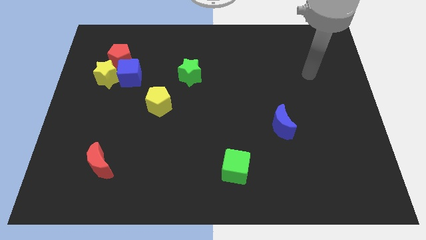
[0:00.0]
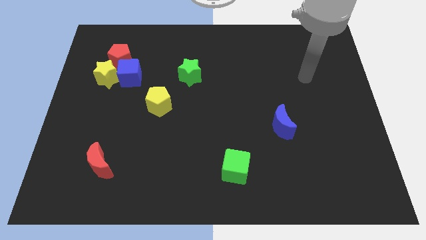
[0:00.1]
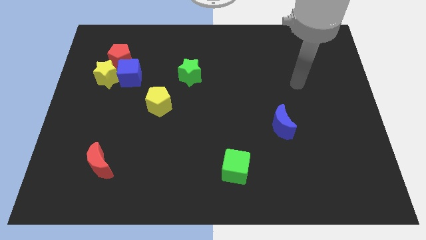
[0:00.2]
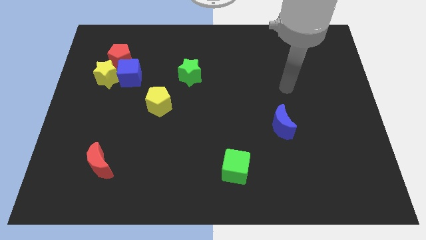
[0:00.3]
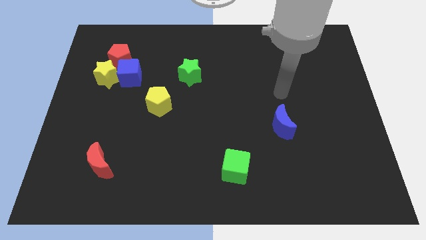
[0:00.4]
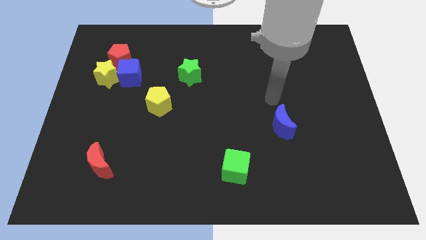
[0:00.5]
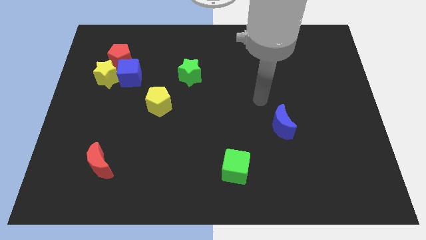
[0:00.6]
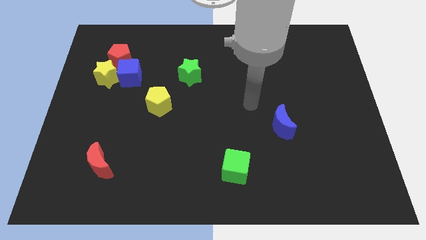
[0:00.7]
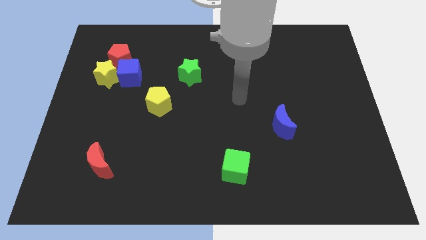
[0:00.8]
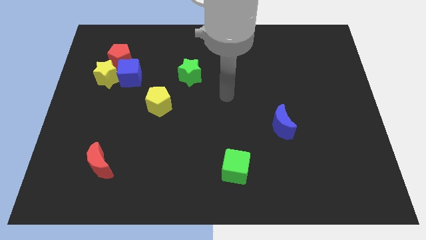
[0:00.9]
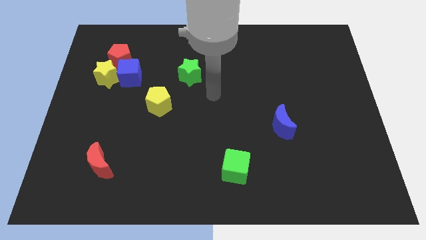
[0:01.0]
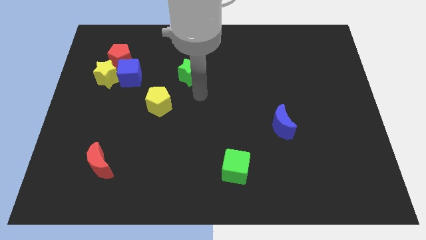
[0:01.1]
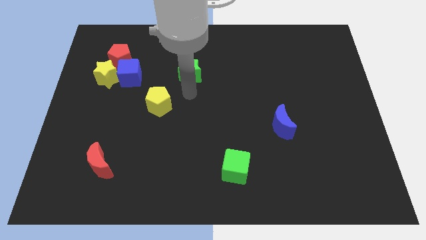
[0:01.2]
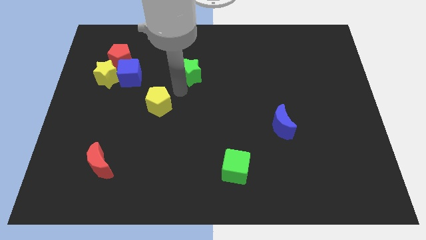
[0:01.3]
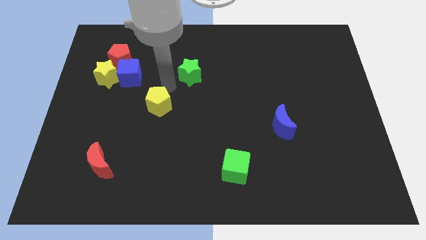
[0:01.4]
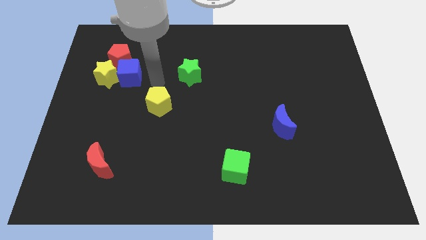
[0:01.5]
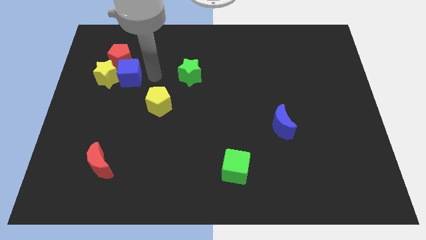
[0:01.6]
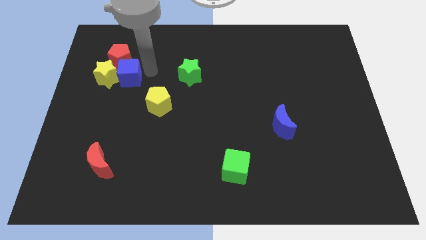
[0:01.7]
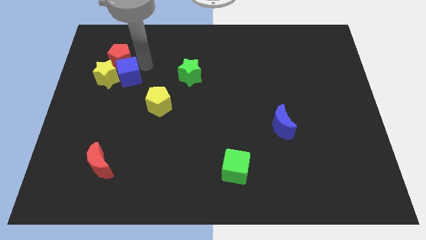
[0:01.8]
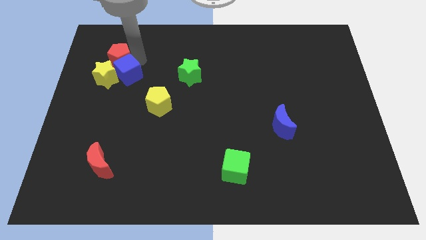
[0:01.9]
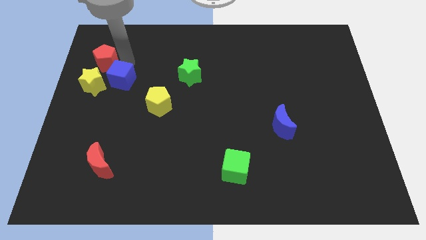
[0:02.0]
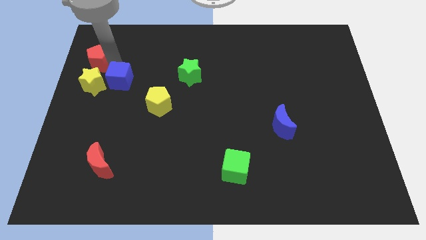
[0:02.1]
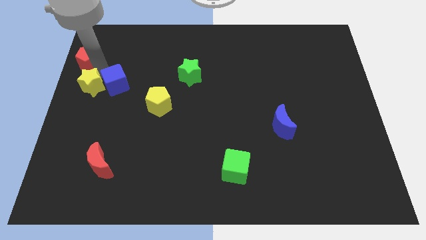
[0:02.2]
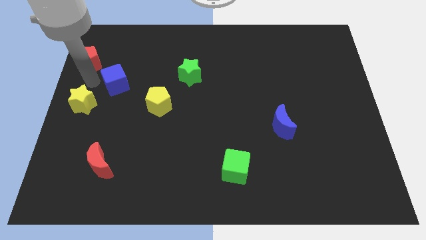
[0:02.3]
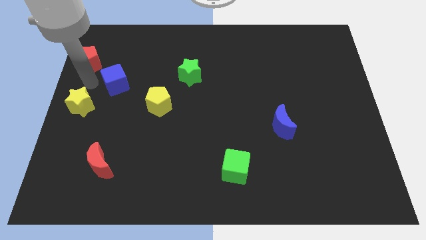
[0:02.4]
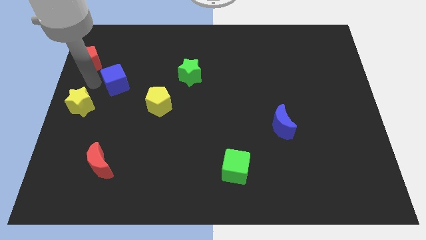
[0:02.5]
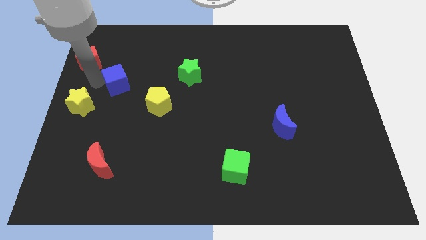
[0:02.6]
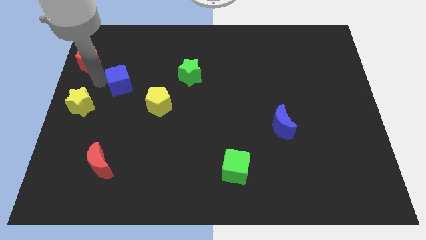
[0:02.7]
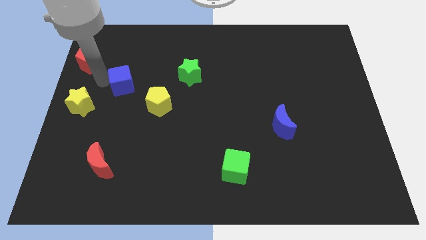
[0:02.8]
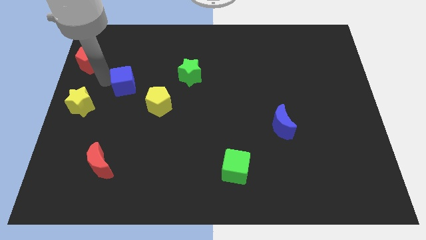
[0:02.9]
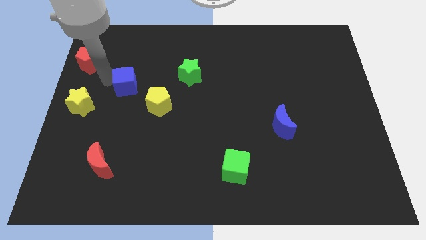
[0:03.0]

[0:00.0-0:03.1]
move the blue cube away from the yellow star and red pentagon

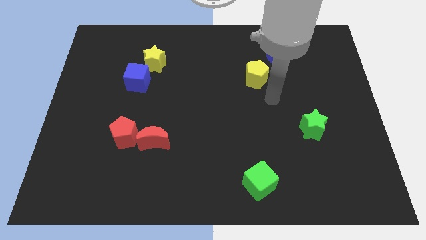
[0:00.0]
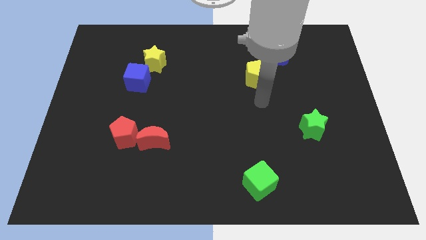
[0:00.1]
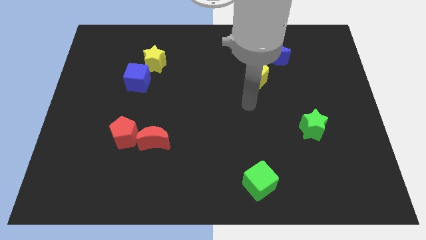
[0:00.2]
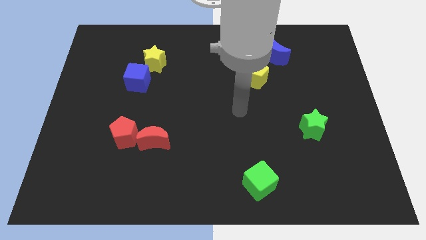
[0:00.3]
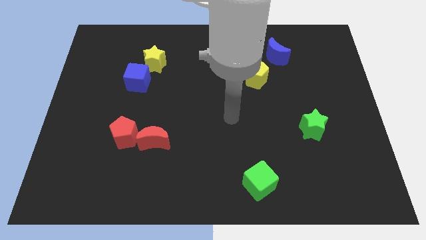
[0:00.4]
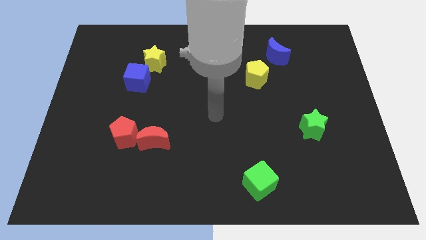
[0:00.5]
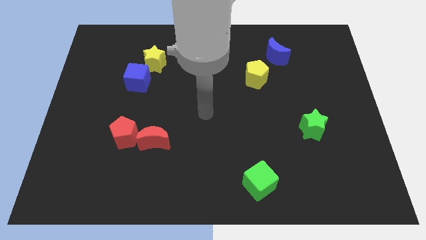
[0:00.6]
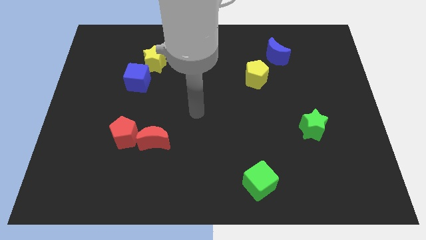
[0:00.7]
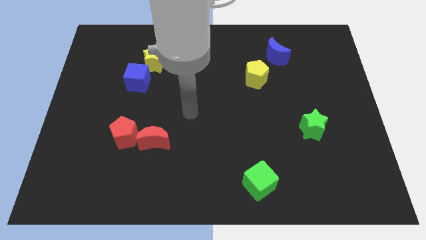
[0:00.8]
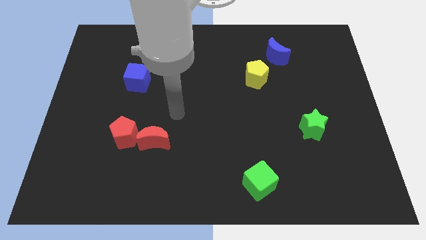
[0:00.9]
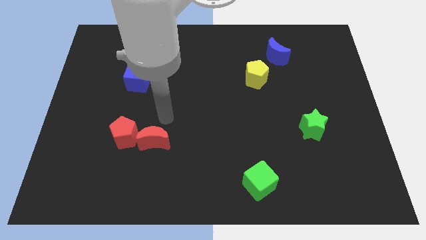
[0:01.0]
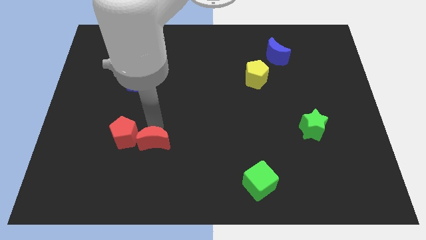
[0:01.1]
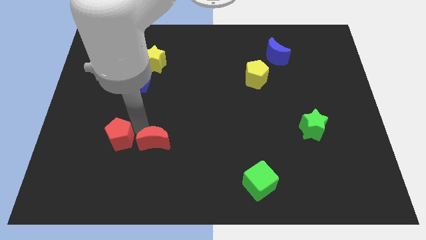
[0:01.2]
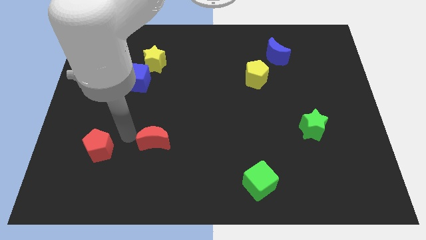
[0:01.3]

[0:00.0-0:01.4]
move the red moon away from the red pentagon

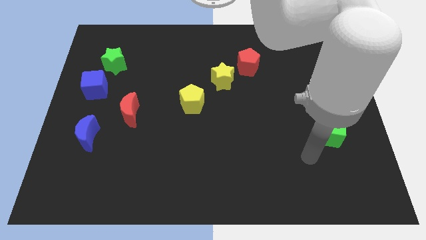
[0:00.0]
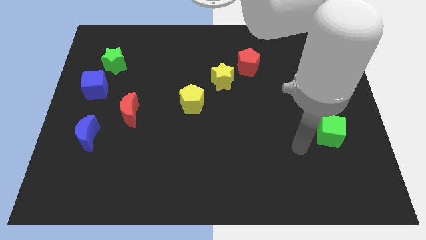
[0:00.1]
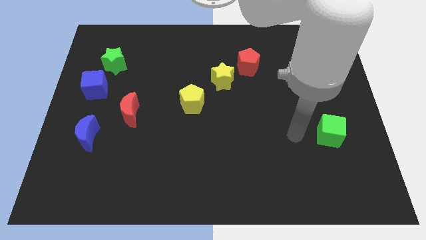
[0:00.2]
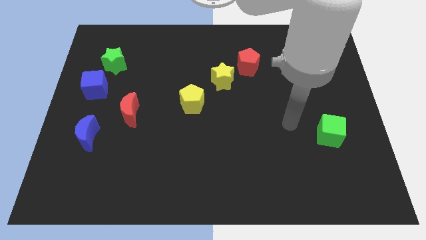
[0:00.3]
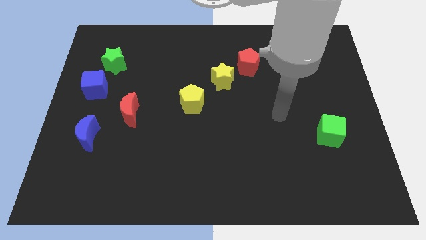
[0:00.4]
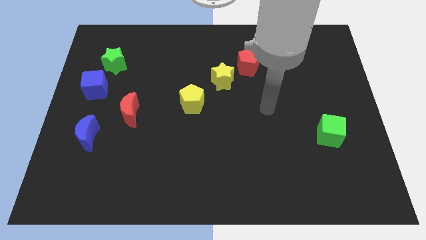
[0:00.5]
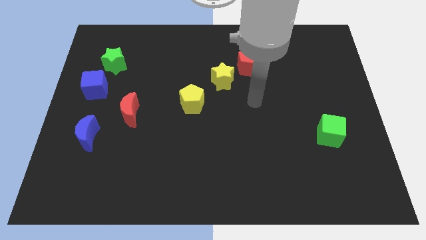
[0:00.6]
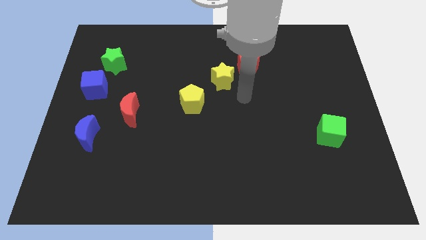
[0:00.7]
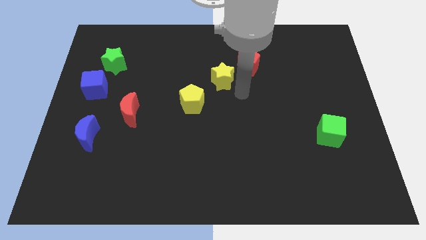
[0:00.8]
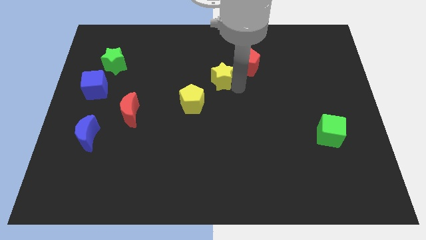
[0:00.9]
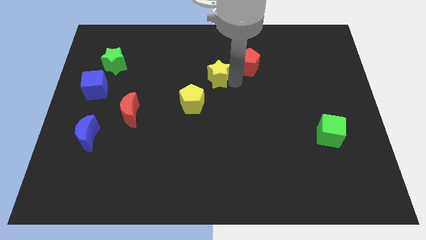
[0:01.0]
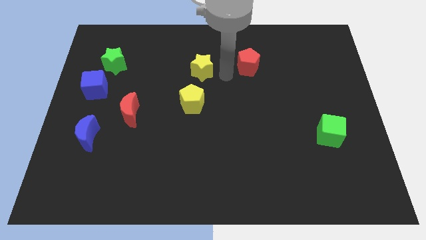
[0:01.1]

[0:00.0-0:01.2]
move the red pentagon away from the yellow star

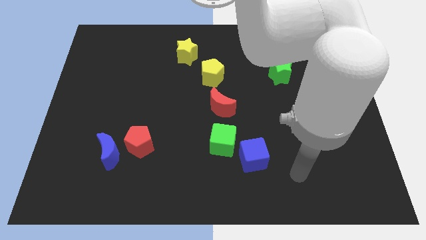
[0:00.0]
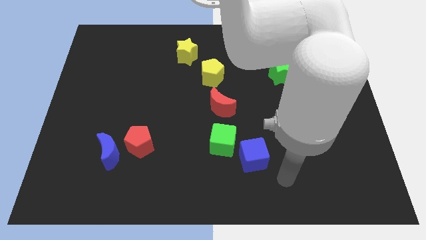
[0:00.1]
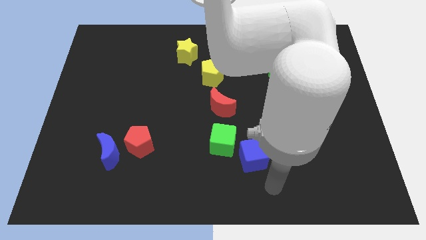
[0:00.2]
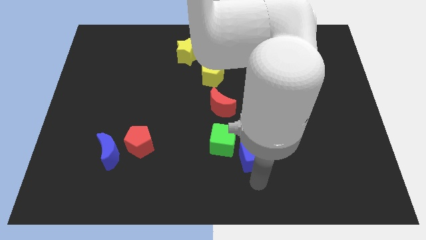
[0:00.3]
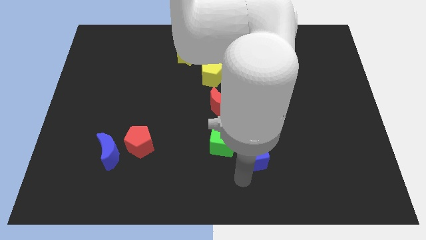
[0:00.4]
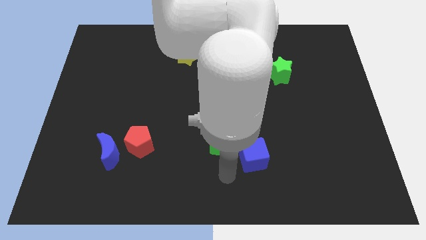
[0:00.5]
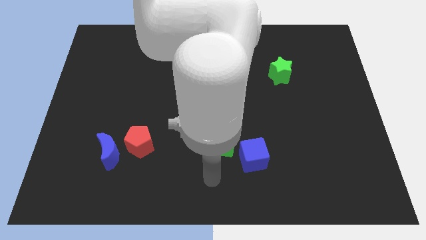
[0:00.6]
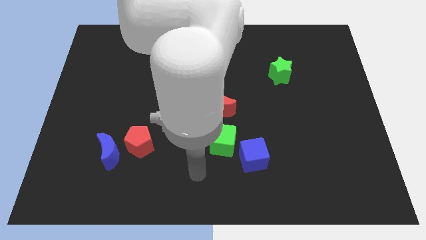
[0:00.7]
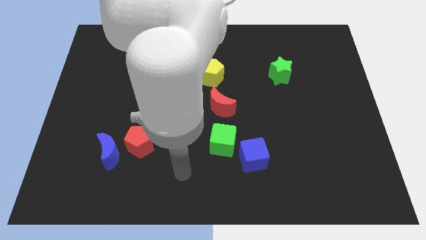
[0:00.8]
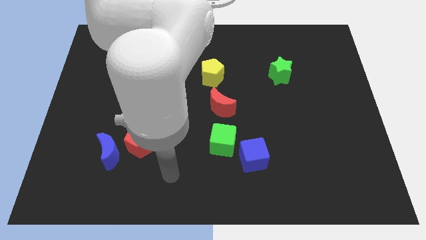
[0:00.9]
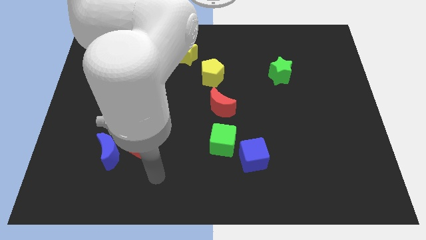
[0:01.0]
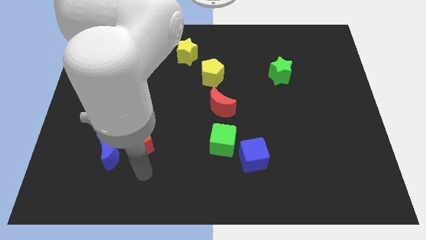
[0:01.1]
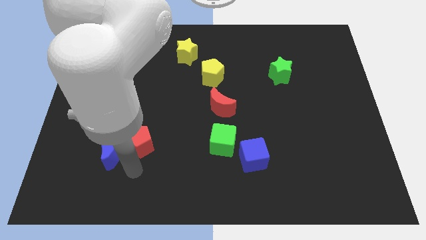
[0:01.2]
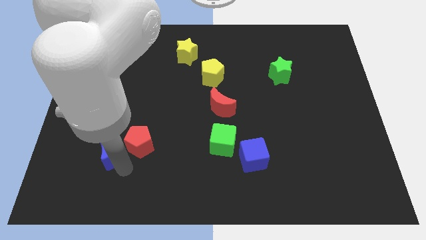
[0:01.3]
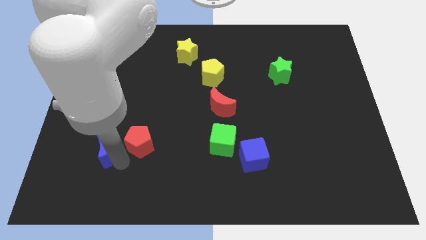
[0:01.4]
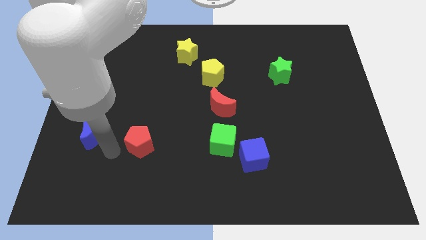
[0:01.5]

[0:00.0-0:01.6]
separate the red pentagon from the blue moon

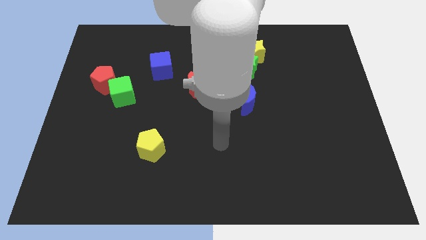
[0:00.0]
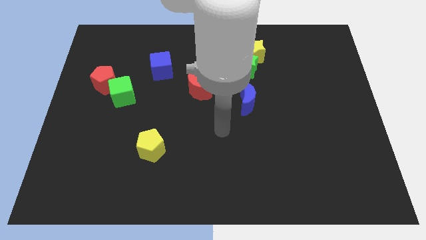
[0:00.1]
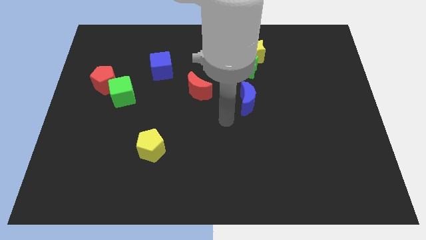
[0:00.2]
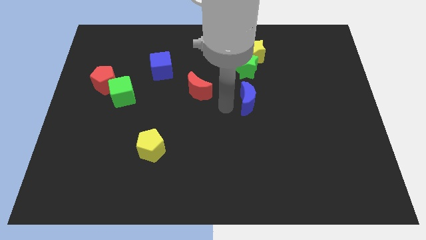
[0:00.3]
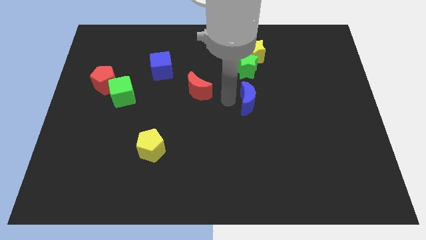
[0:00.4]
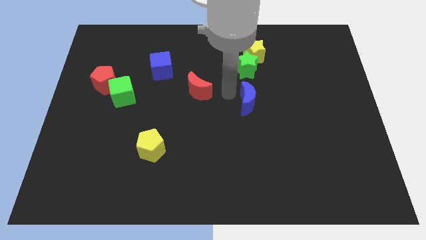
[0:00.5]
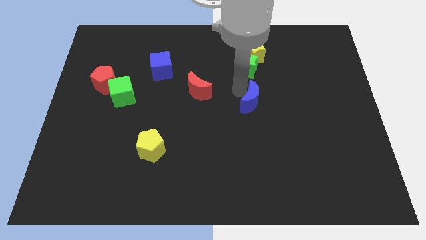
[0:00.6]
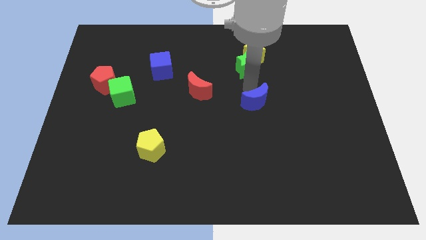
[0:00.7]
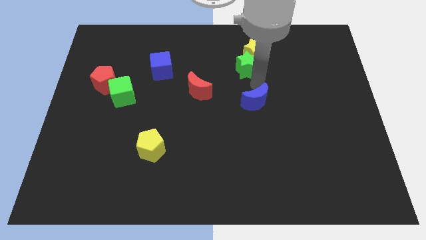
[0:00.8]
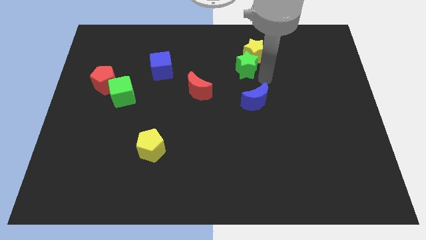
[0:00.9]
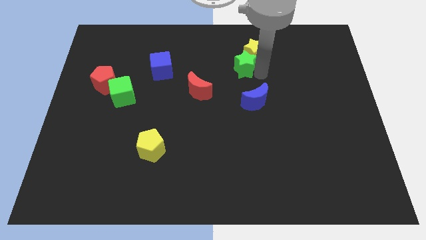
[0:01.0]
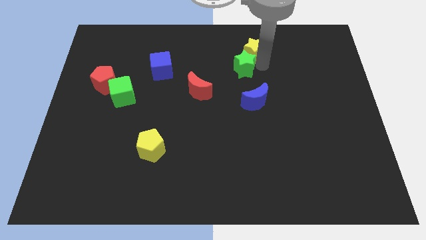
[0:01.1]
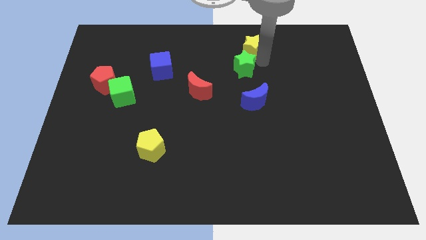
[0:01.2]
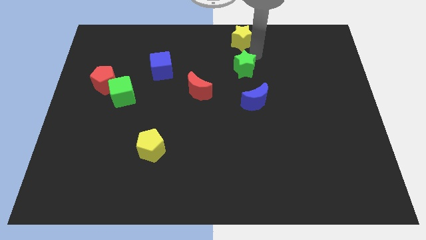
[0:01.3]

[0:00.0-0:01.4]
move the green star away from the yellow star

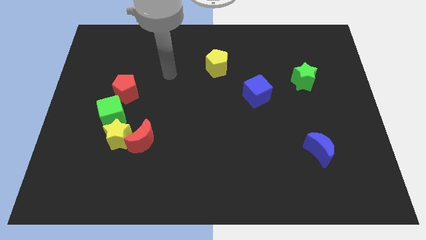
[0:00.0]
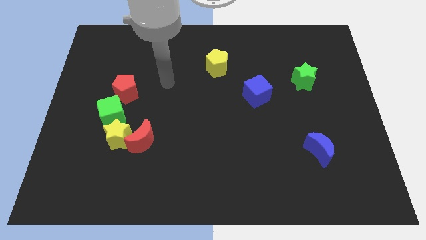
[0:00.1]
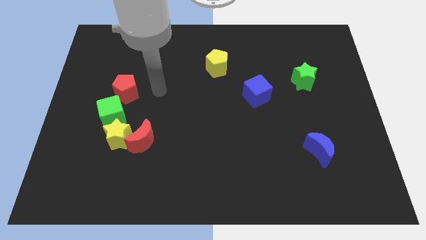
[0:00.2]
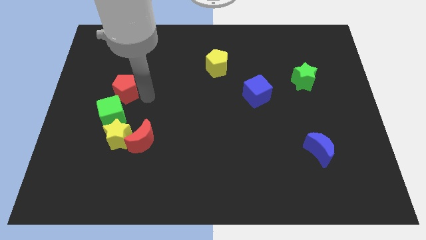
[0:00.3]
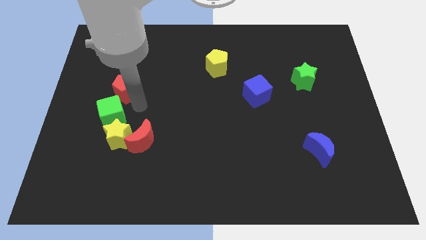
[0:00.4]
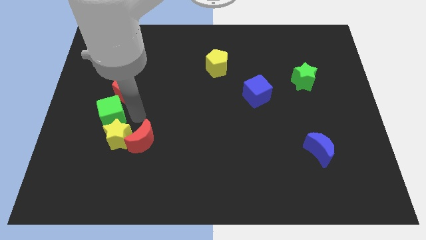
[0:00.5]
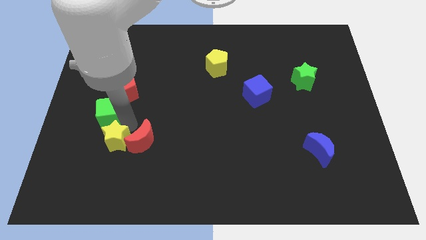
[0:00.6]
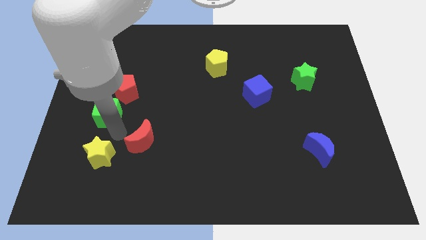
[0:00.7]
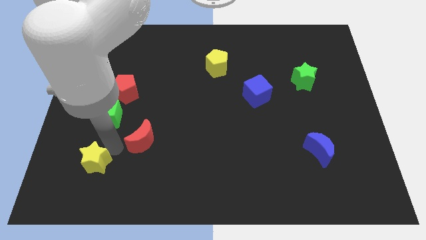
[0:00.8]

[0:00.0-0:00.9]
separate the red moon from the yellow star
